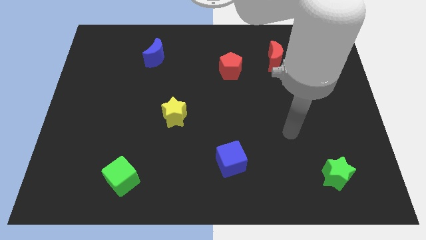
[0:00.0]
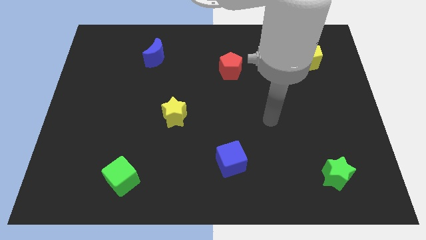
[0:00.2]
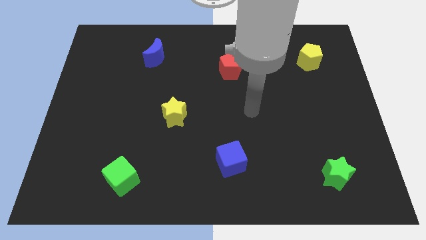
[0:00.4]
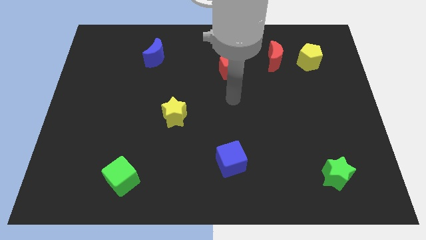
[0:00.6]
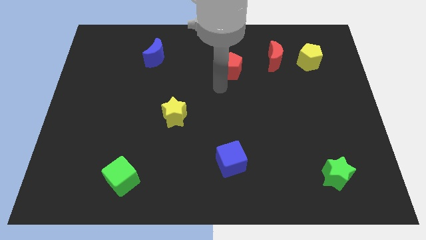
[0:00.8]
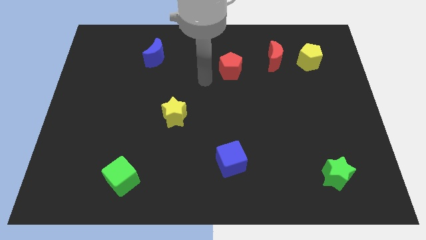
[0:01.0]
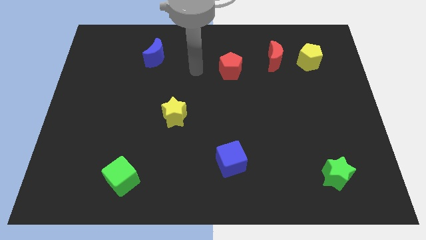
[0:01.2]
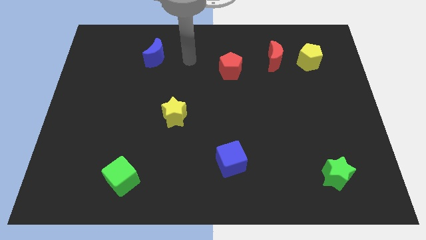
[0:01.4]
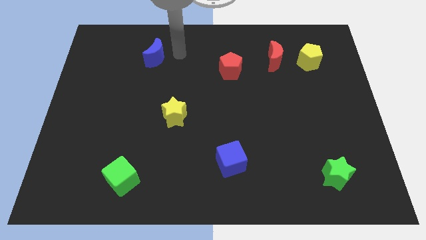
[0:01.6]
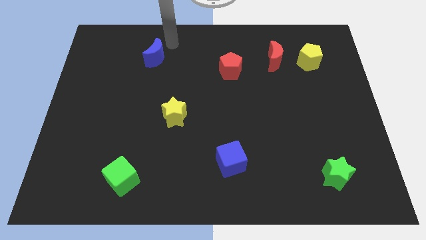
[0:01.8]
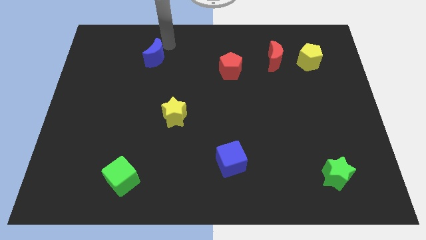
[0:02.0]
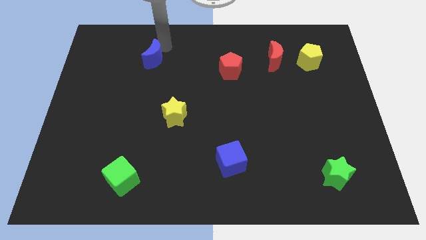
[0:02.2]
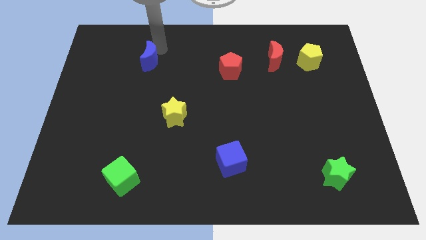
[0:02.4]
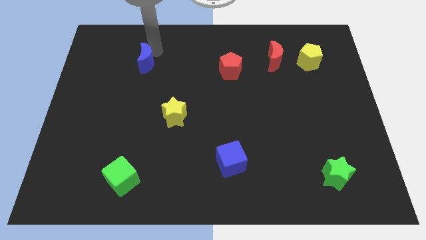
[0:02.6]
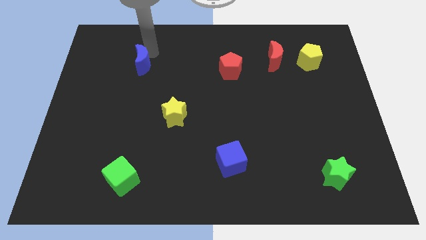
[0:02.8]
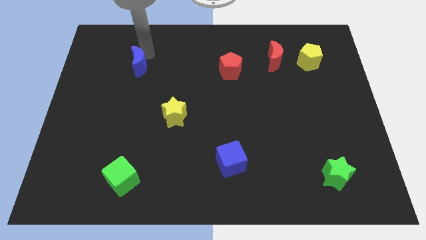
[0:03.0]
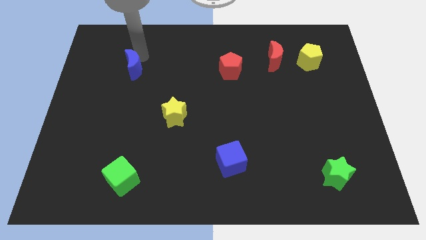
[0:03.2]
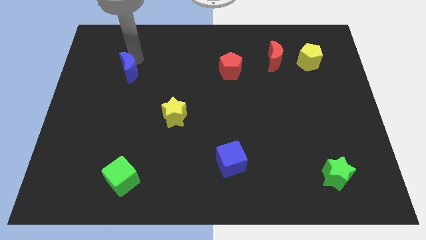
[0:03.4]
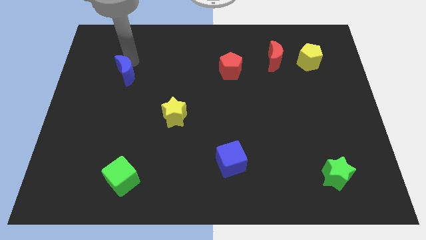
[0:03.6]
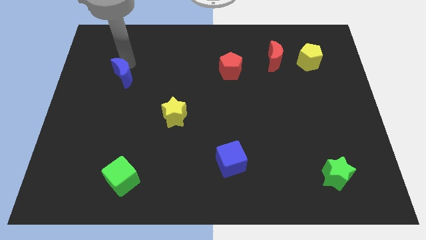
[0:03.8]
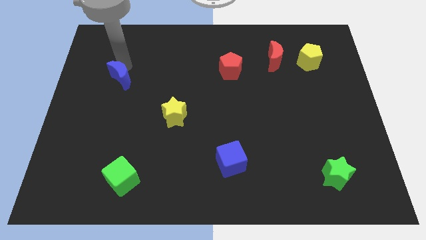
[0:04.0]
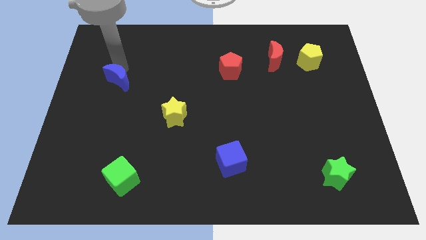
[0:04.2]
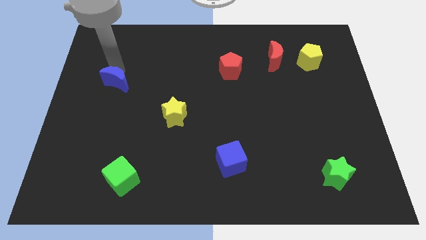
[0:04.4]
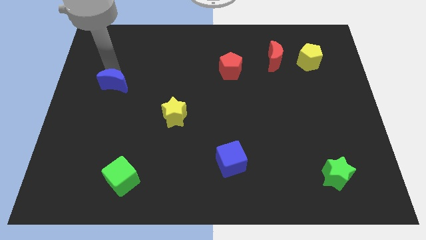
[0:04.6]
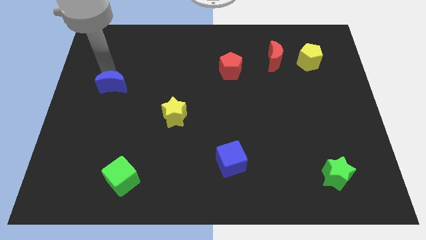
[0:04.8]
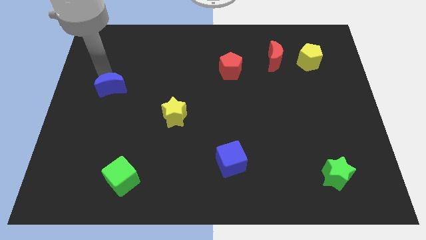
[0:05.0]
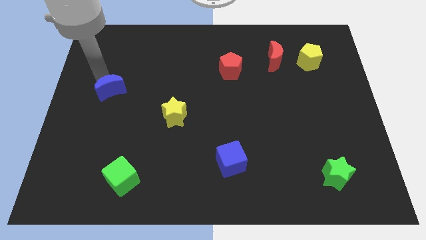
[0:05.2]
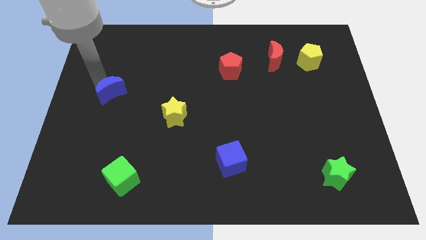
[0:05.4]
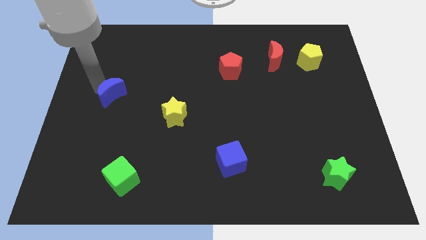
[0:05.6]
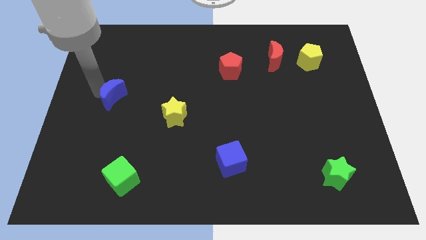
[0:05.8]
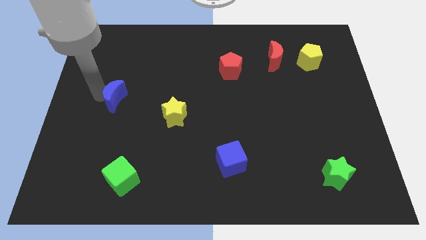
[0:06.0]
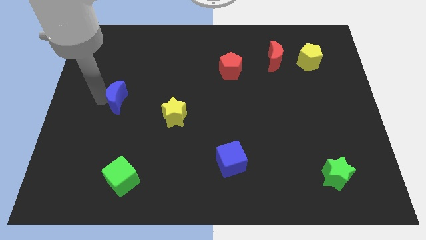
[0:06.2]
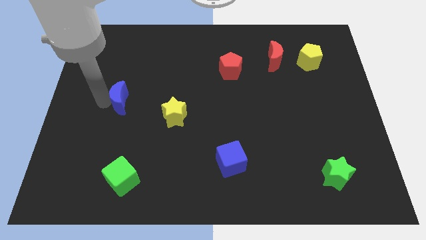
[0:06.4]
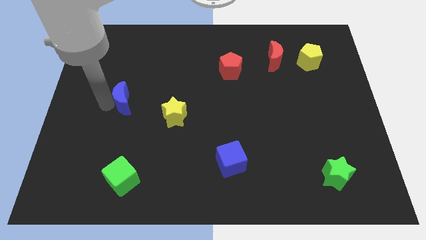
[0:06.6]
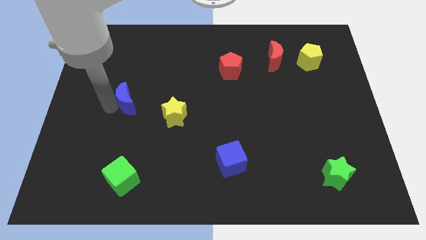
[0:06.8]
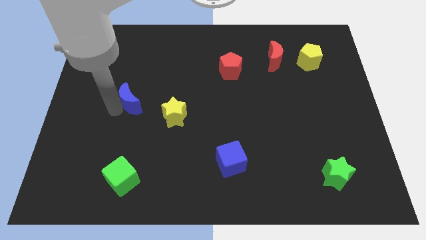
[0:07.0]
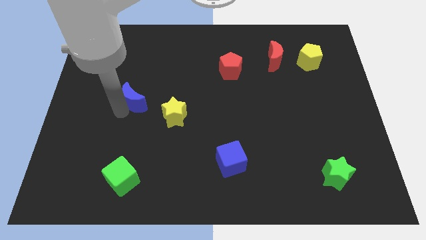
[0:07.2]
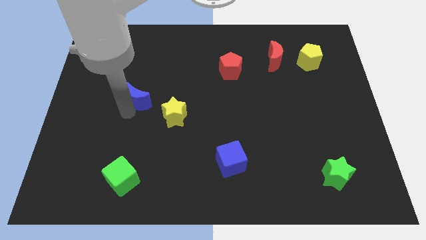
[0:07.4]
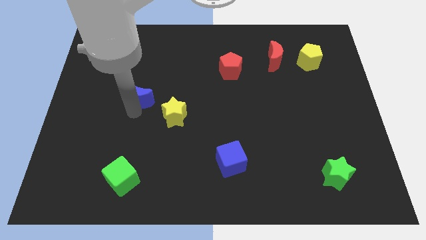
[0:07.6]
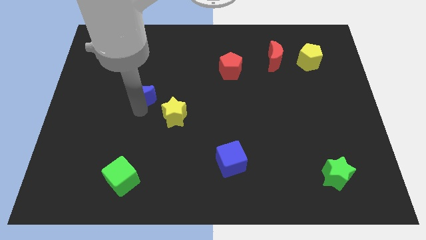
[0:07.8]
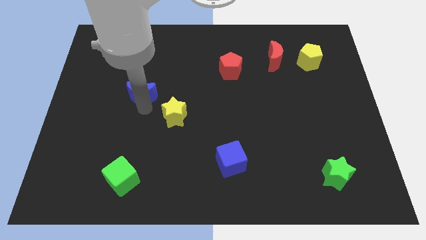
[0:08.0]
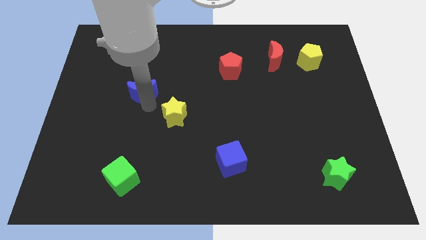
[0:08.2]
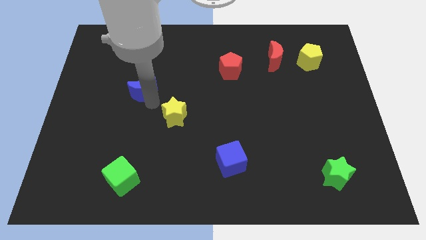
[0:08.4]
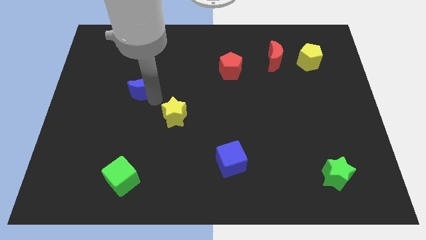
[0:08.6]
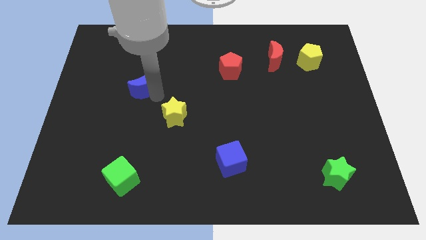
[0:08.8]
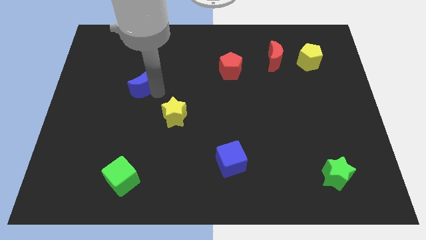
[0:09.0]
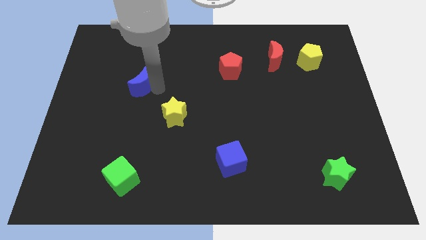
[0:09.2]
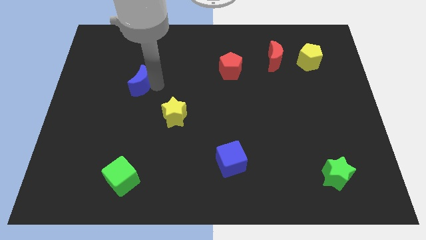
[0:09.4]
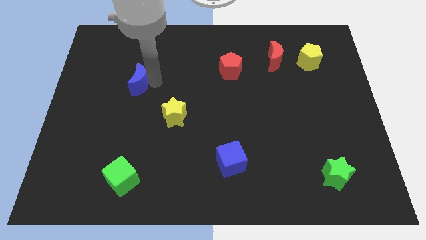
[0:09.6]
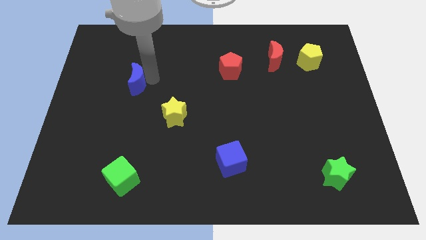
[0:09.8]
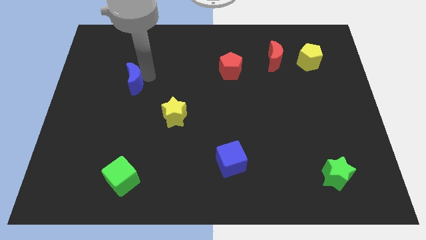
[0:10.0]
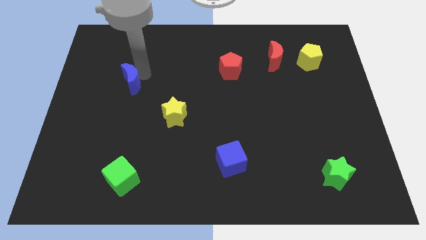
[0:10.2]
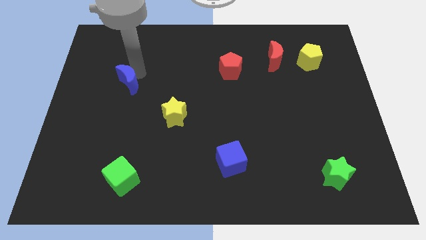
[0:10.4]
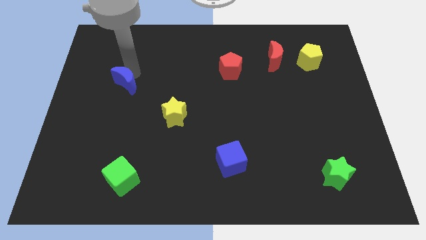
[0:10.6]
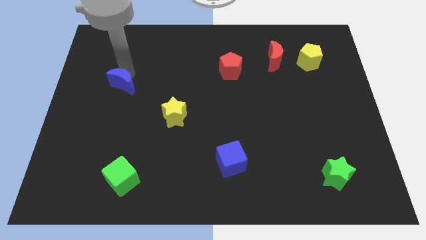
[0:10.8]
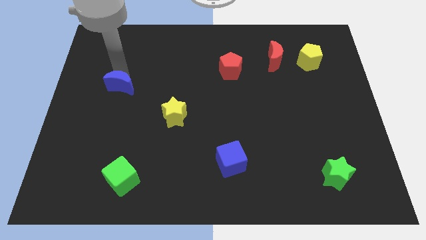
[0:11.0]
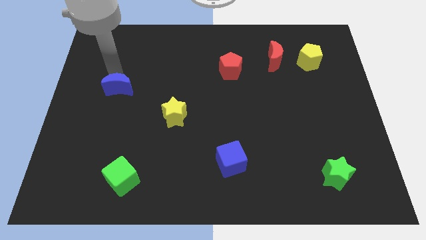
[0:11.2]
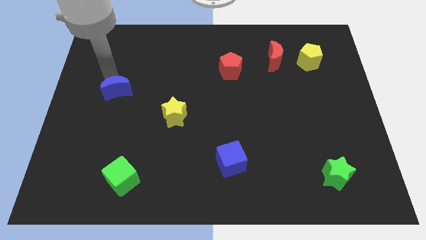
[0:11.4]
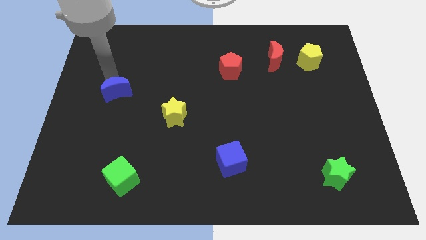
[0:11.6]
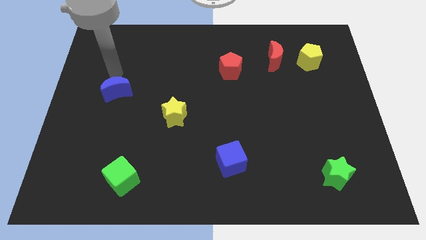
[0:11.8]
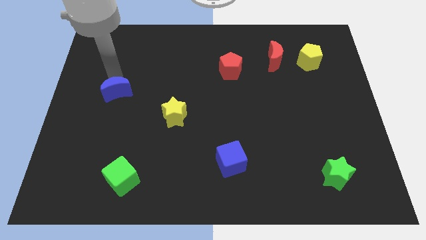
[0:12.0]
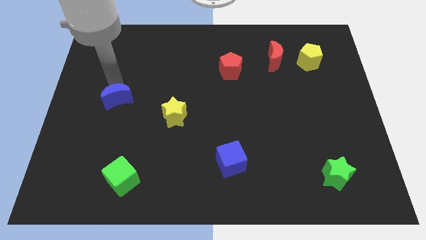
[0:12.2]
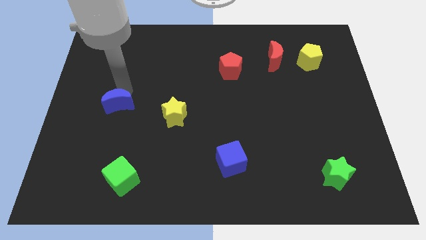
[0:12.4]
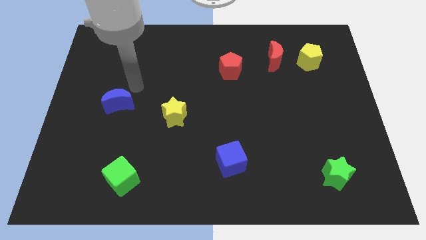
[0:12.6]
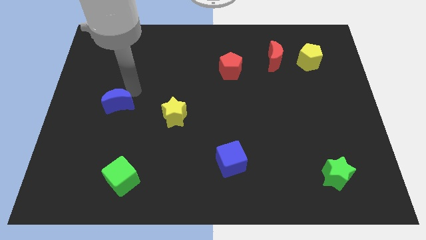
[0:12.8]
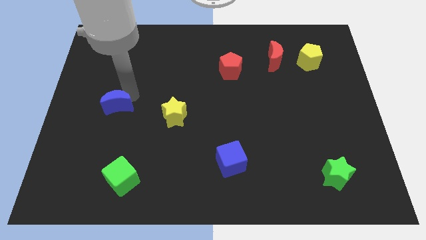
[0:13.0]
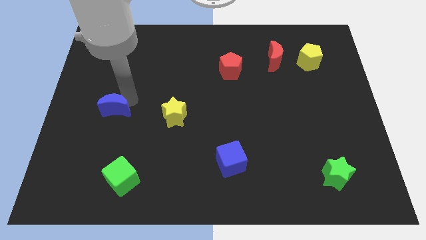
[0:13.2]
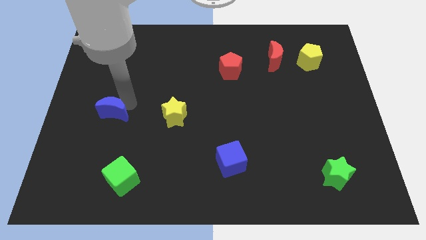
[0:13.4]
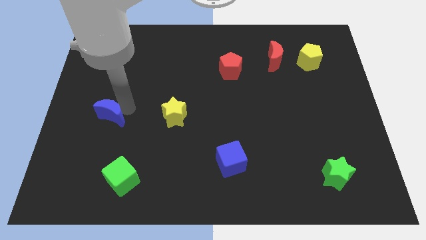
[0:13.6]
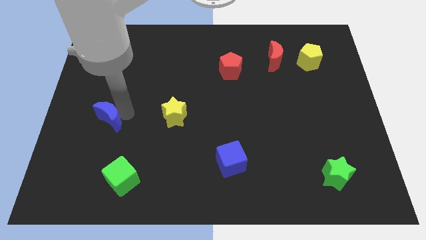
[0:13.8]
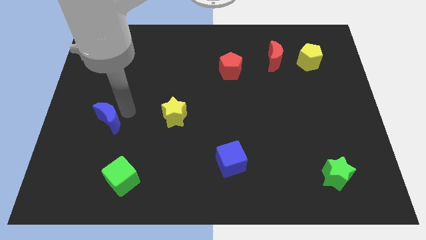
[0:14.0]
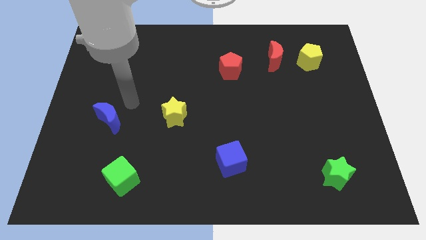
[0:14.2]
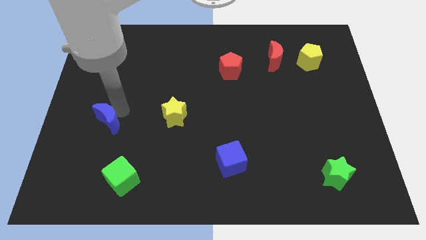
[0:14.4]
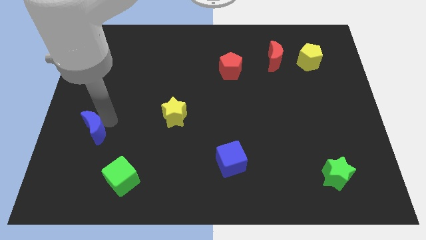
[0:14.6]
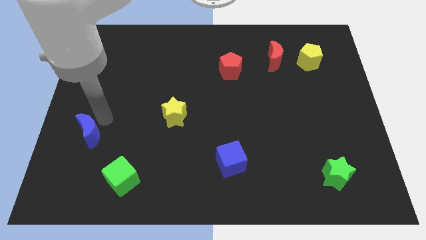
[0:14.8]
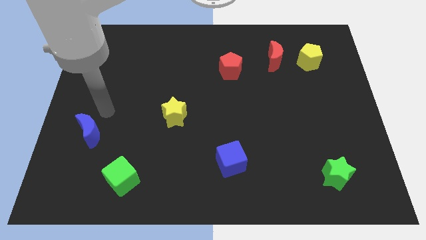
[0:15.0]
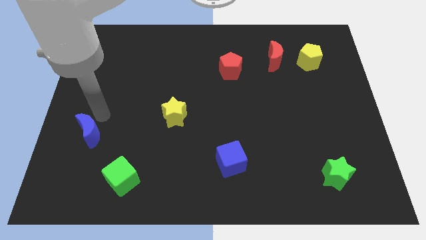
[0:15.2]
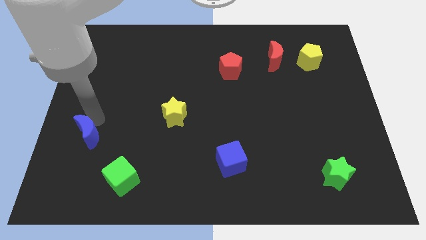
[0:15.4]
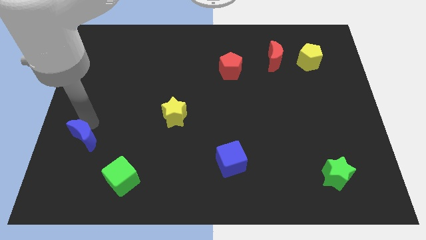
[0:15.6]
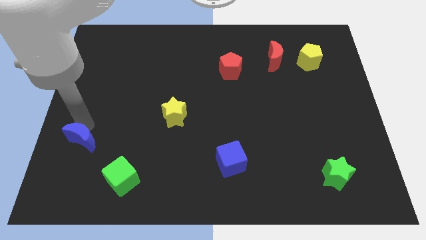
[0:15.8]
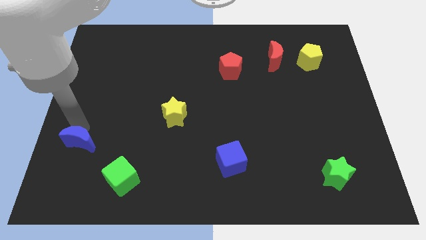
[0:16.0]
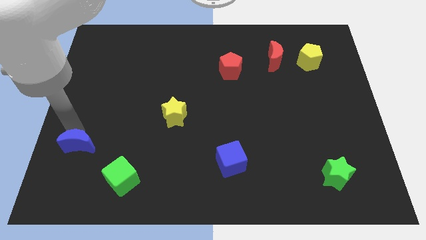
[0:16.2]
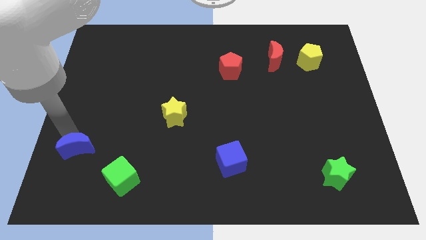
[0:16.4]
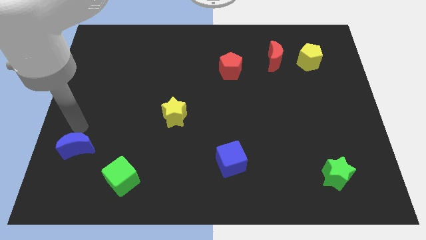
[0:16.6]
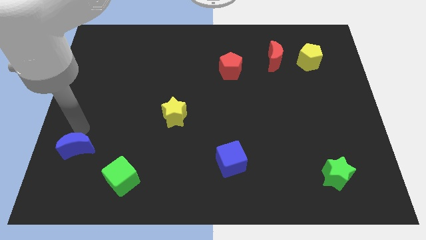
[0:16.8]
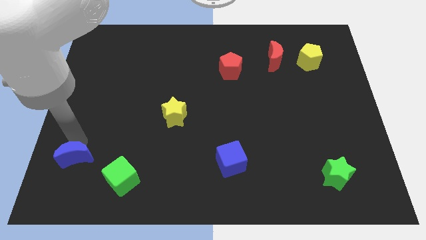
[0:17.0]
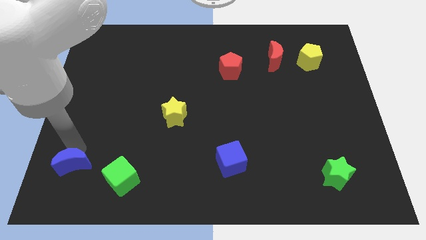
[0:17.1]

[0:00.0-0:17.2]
slide the blue moon just left of the green cube
